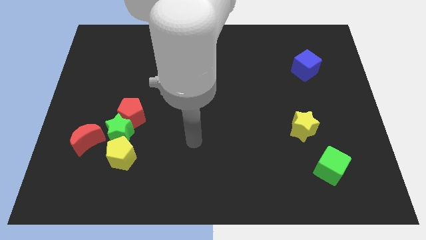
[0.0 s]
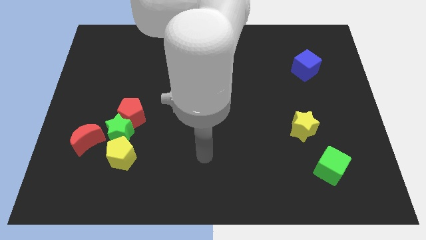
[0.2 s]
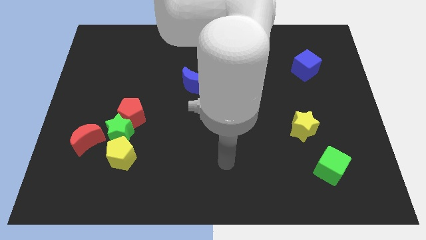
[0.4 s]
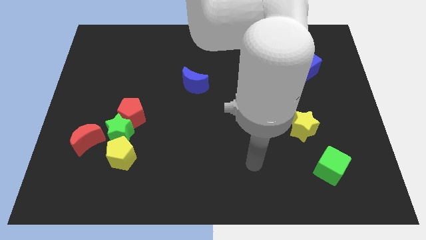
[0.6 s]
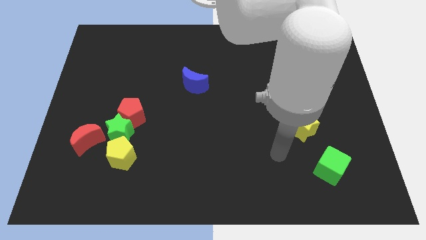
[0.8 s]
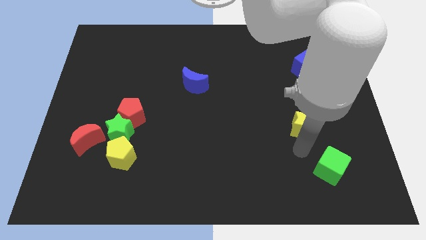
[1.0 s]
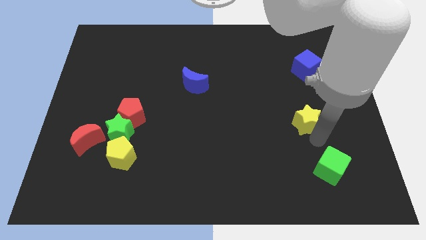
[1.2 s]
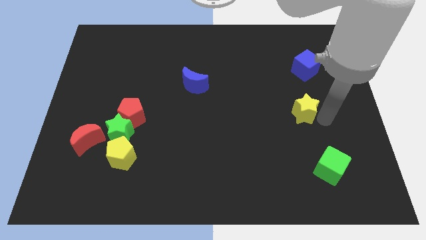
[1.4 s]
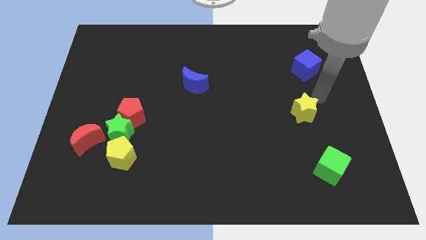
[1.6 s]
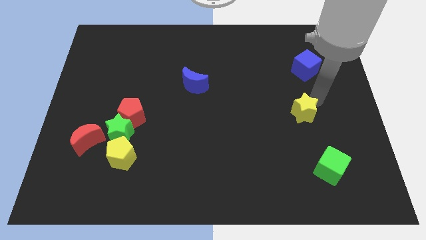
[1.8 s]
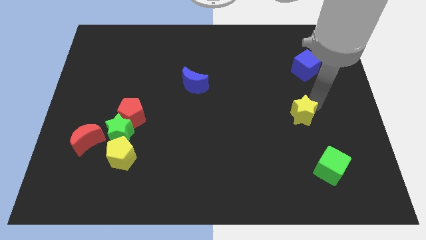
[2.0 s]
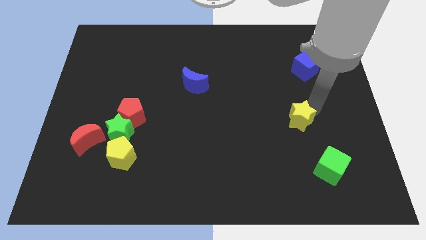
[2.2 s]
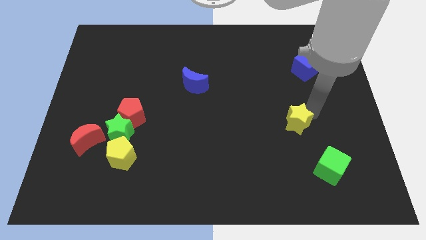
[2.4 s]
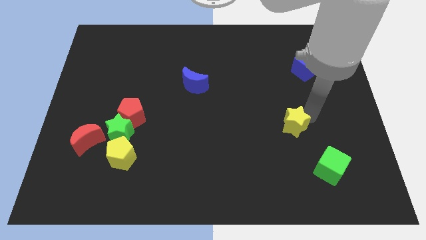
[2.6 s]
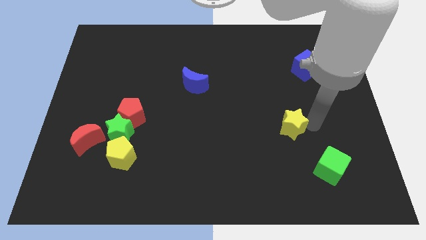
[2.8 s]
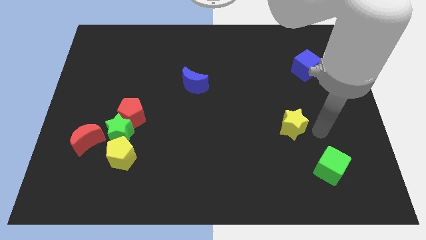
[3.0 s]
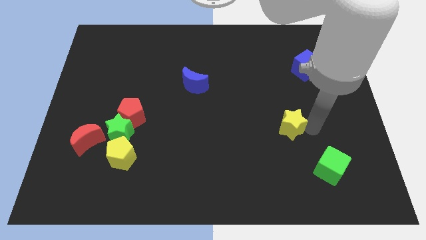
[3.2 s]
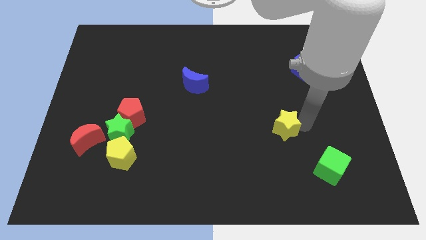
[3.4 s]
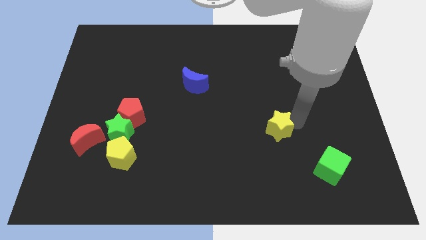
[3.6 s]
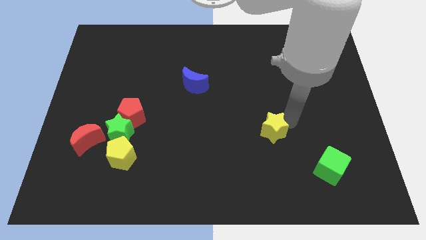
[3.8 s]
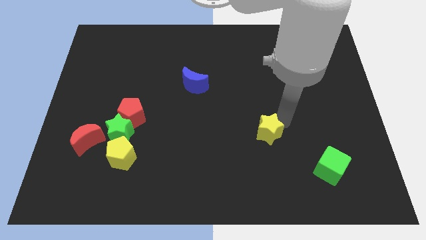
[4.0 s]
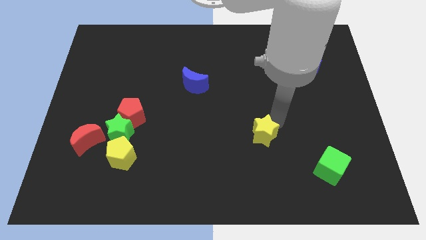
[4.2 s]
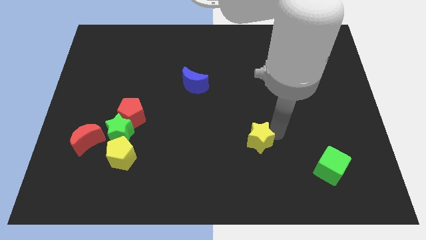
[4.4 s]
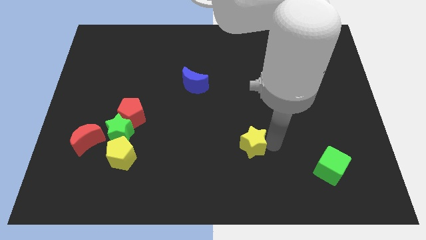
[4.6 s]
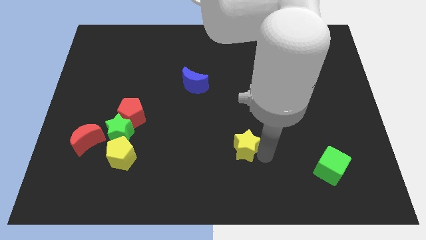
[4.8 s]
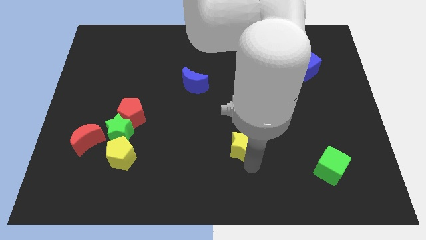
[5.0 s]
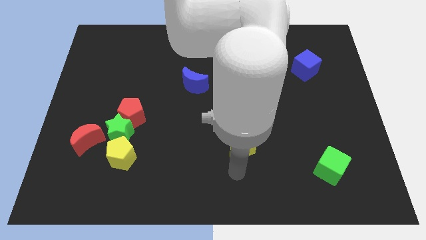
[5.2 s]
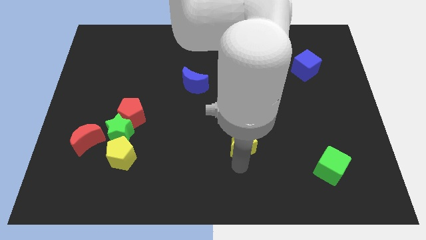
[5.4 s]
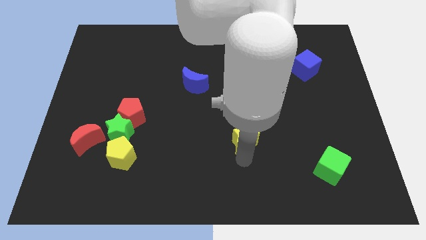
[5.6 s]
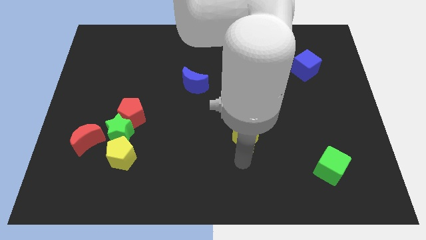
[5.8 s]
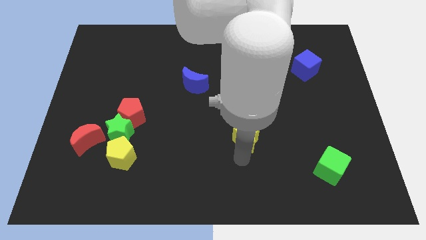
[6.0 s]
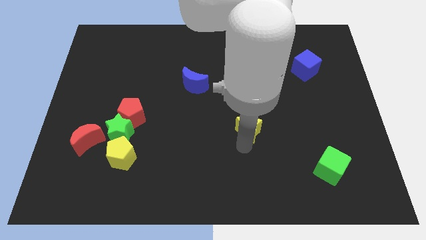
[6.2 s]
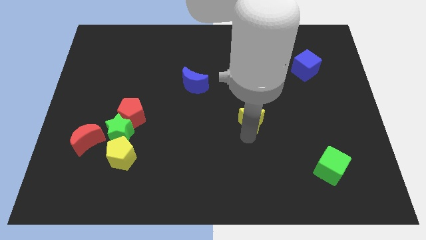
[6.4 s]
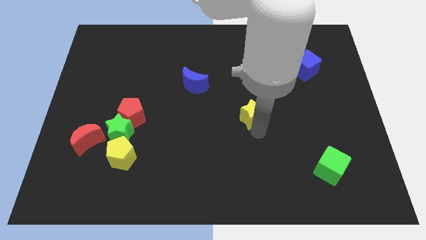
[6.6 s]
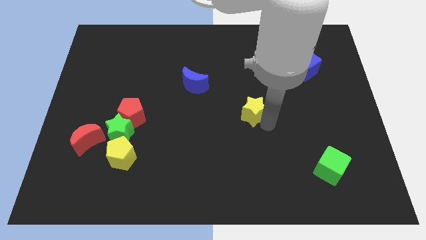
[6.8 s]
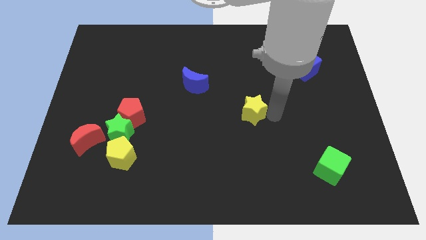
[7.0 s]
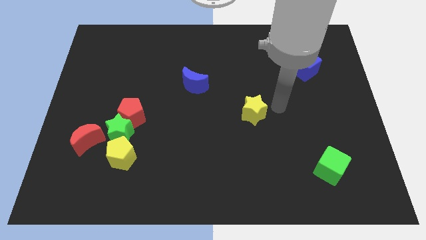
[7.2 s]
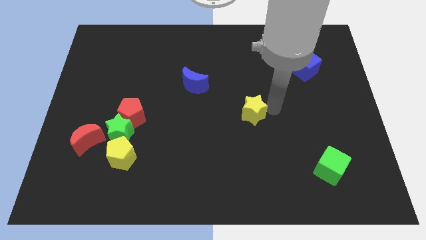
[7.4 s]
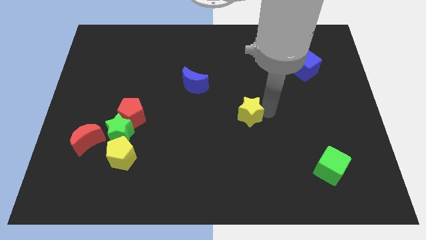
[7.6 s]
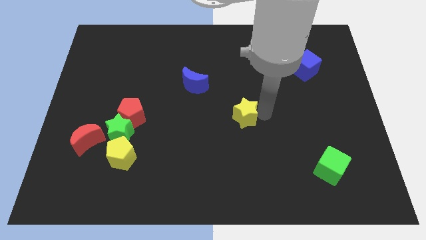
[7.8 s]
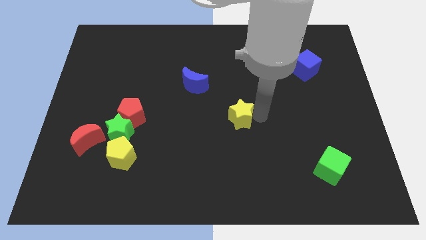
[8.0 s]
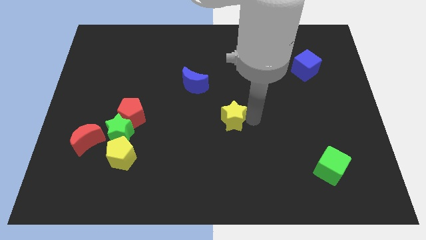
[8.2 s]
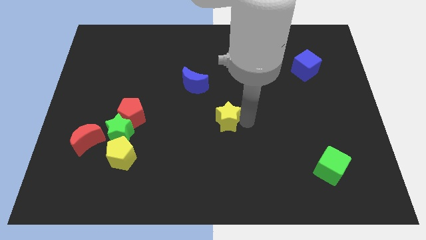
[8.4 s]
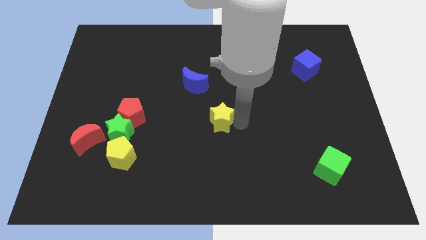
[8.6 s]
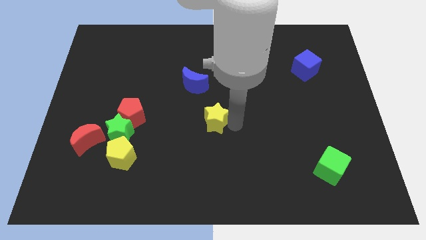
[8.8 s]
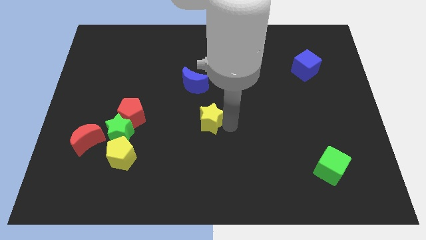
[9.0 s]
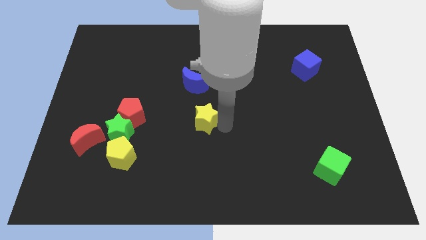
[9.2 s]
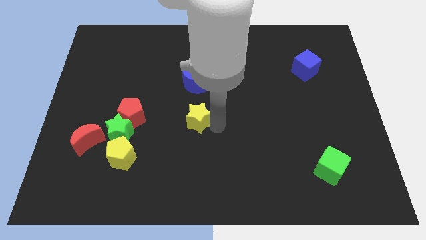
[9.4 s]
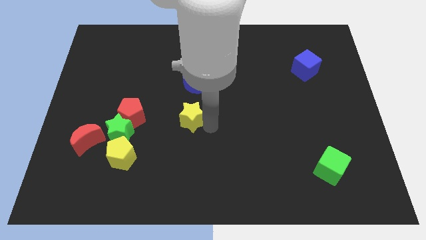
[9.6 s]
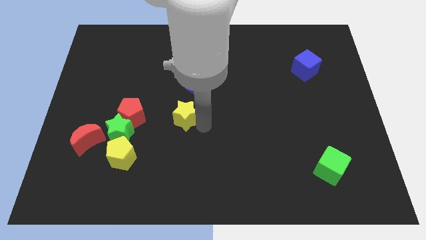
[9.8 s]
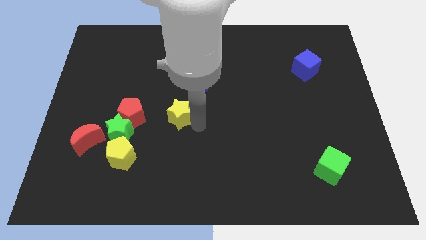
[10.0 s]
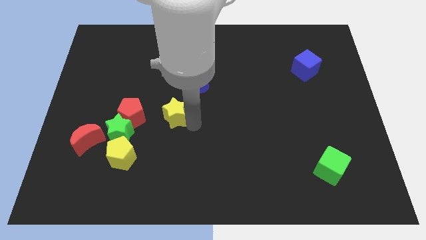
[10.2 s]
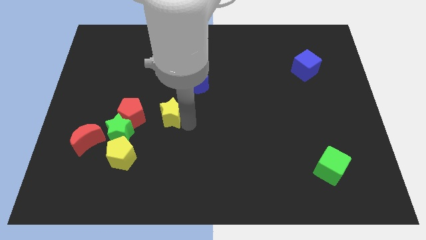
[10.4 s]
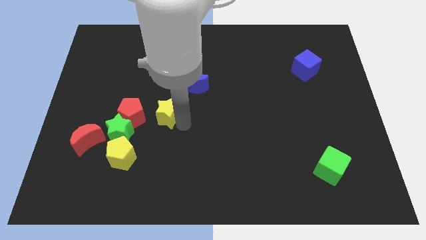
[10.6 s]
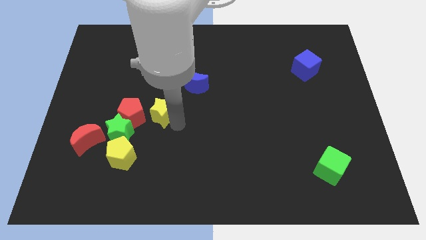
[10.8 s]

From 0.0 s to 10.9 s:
push the yellow star to the top right of the red pentagon

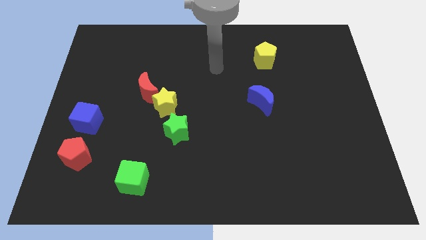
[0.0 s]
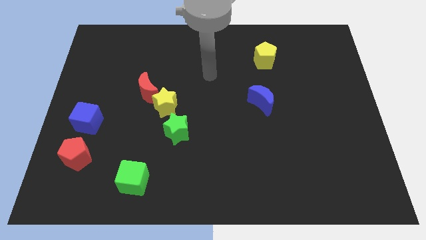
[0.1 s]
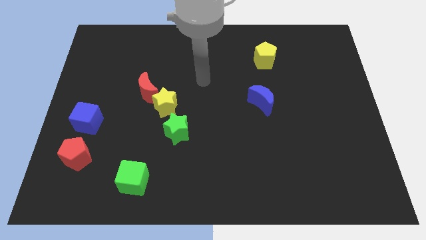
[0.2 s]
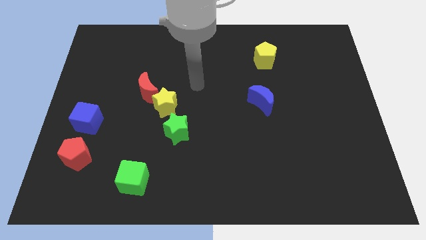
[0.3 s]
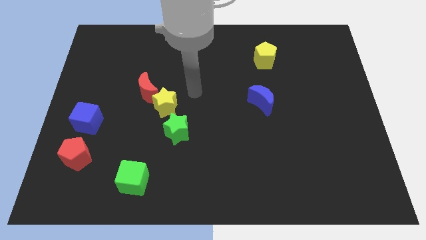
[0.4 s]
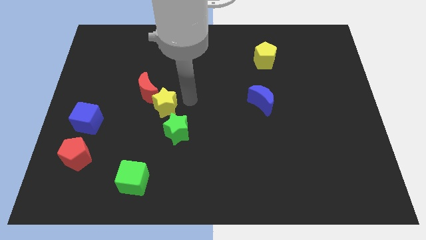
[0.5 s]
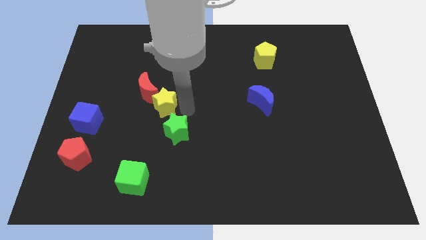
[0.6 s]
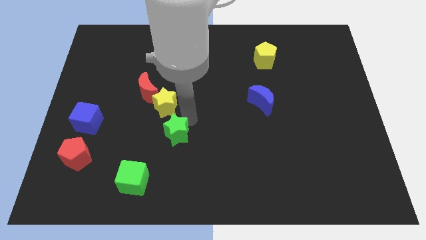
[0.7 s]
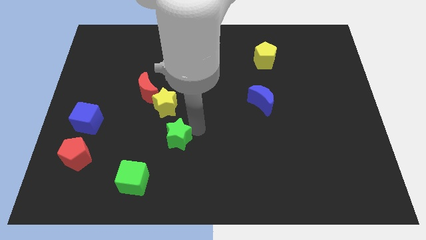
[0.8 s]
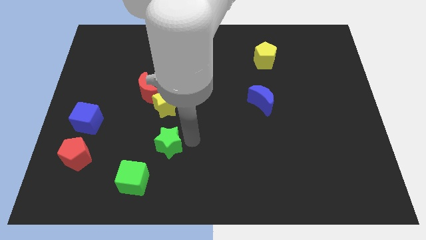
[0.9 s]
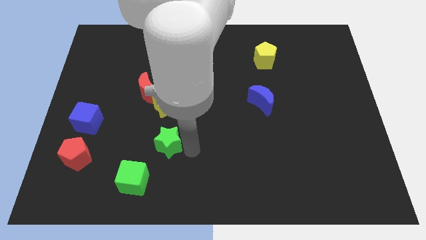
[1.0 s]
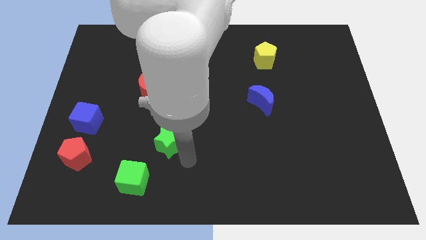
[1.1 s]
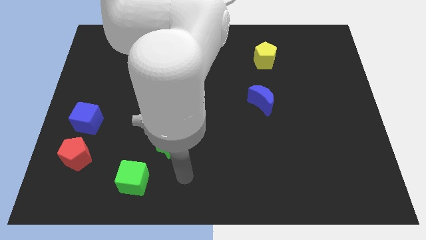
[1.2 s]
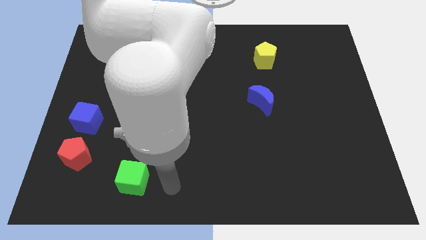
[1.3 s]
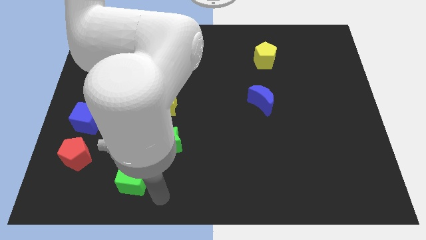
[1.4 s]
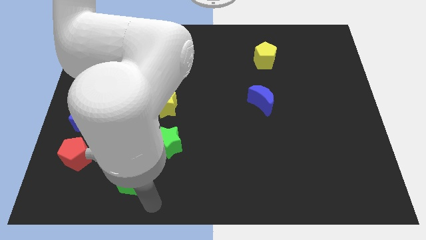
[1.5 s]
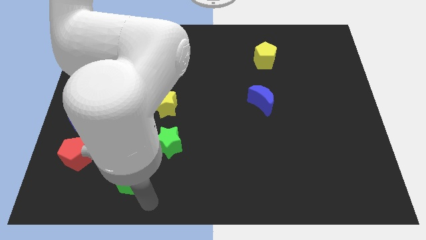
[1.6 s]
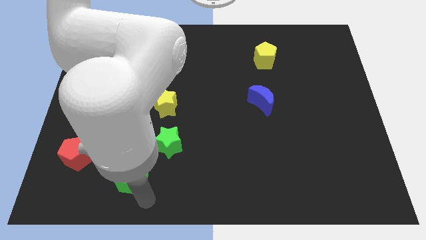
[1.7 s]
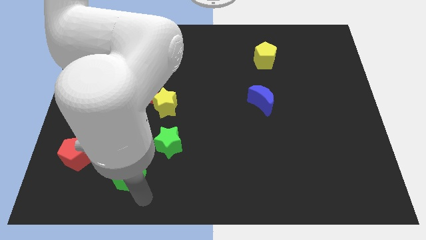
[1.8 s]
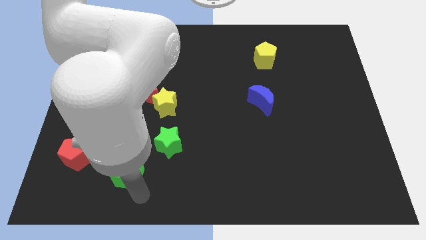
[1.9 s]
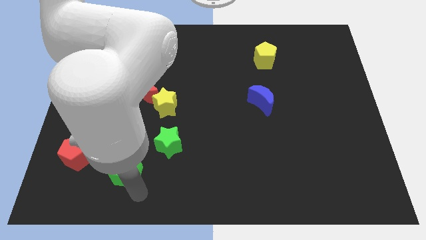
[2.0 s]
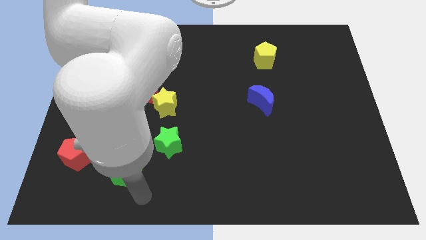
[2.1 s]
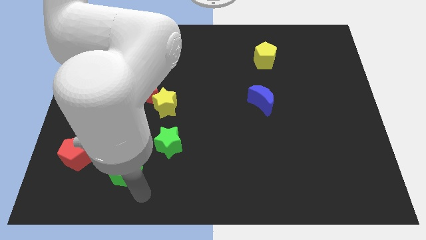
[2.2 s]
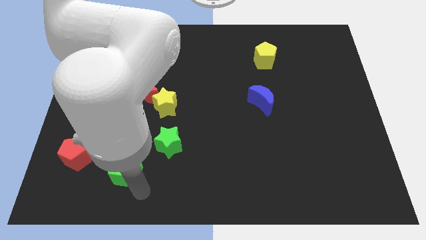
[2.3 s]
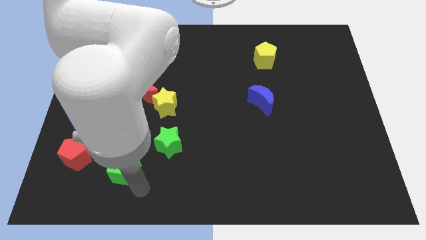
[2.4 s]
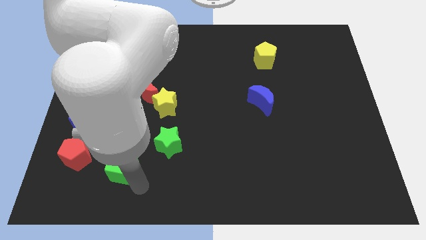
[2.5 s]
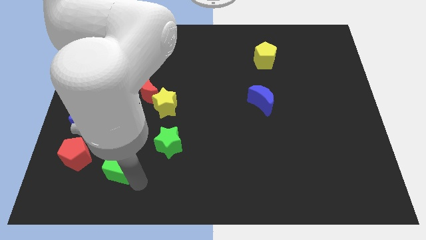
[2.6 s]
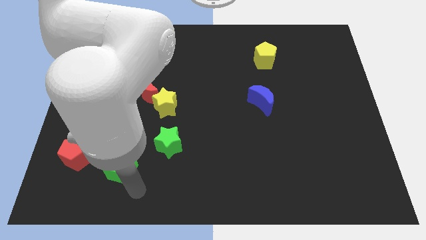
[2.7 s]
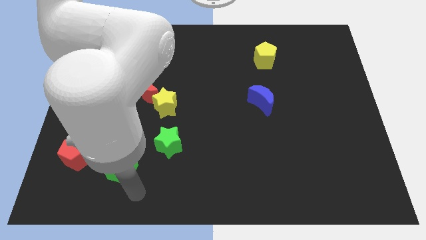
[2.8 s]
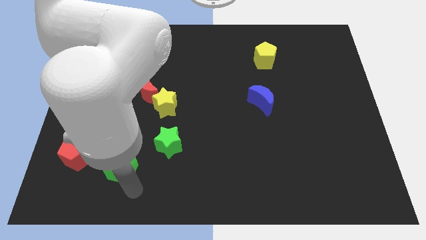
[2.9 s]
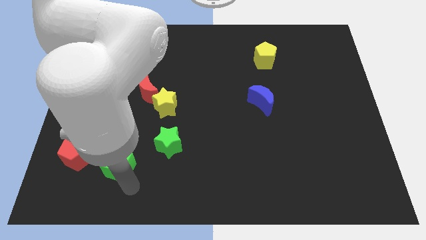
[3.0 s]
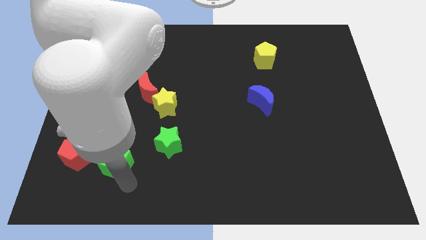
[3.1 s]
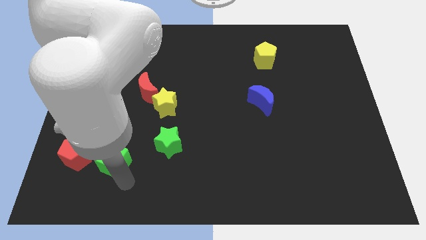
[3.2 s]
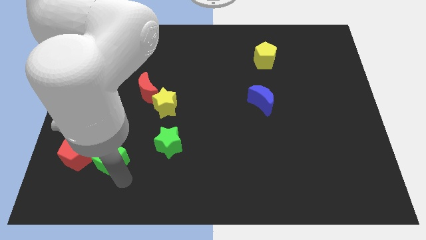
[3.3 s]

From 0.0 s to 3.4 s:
put the green cube to the bottom right of the blue cube
